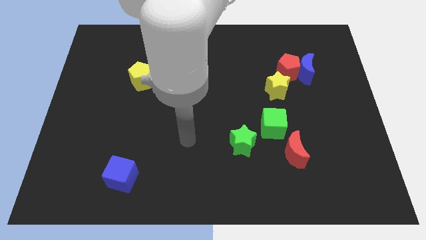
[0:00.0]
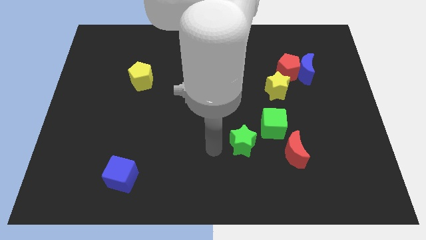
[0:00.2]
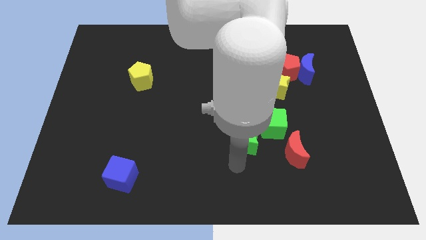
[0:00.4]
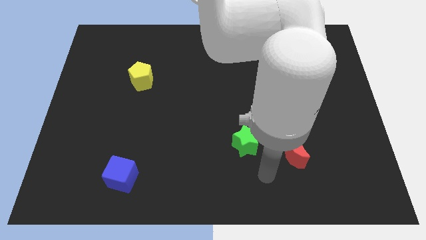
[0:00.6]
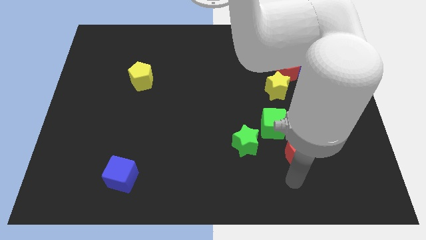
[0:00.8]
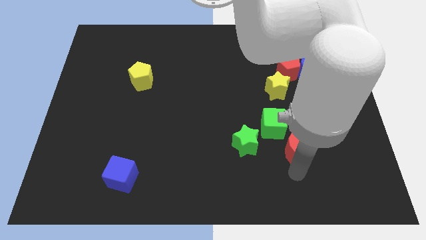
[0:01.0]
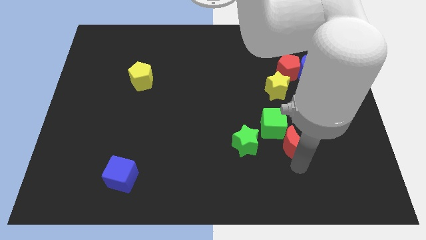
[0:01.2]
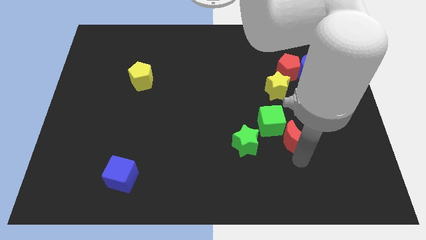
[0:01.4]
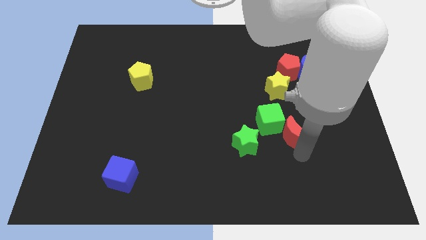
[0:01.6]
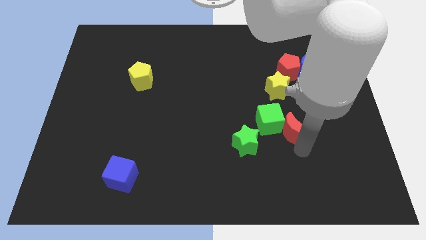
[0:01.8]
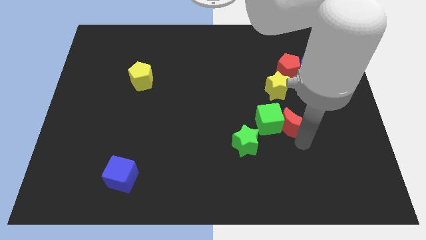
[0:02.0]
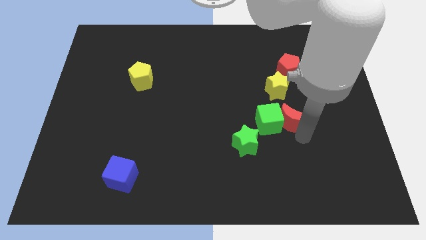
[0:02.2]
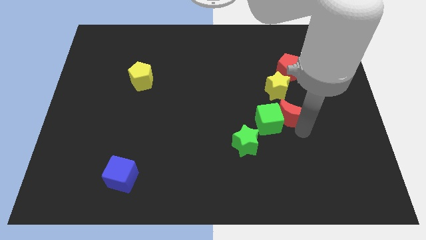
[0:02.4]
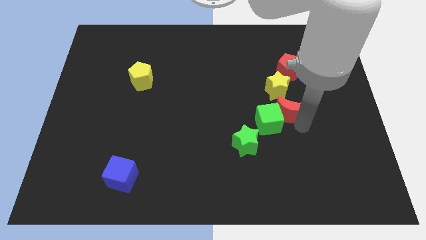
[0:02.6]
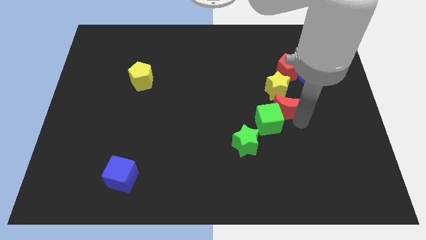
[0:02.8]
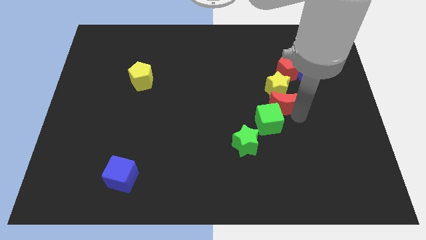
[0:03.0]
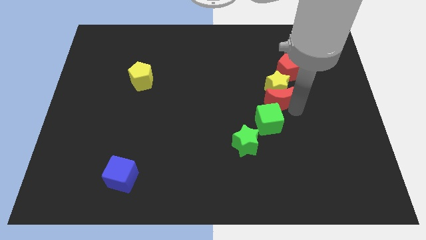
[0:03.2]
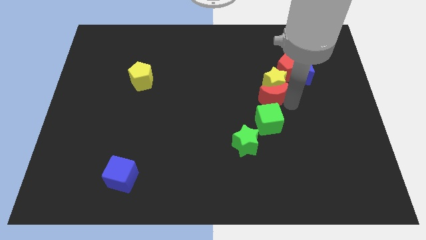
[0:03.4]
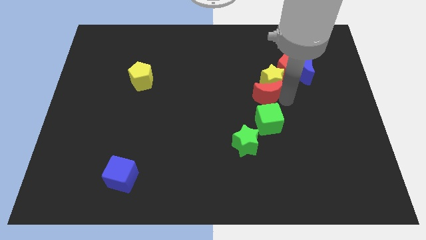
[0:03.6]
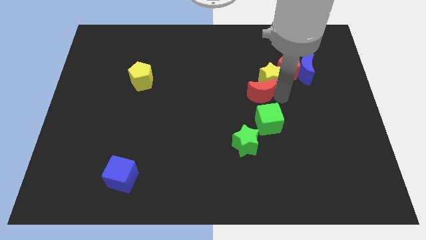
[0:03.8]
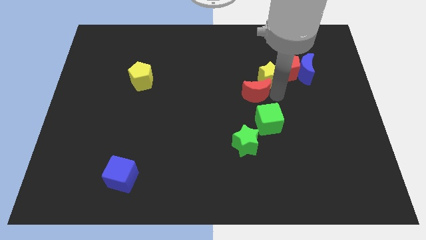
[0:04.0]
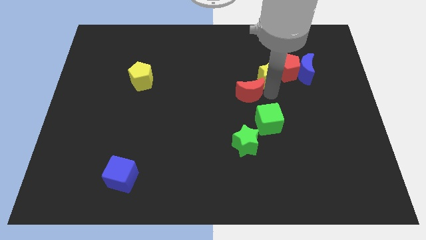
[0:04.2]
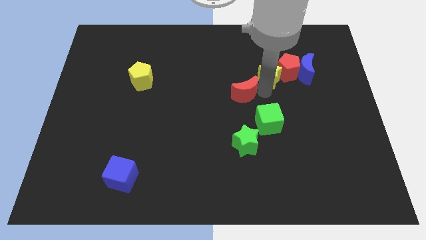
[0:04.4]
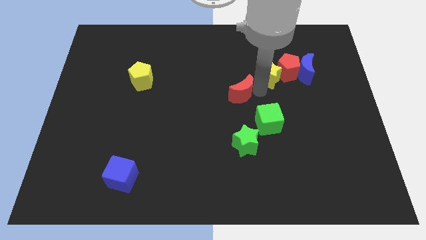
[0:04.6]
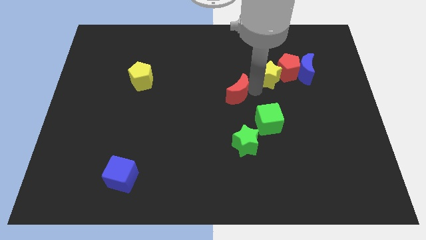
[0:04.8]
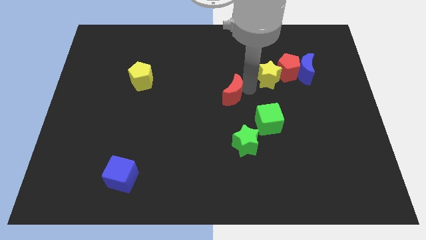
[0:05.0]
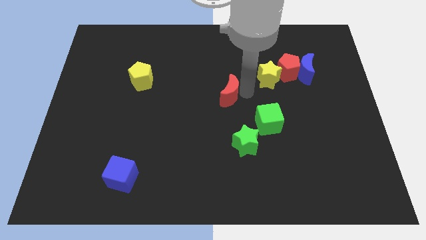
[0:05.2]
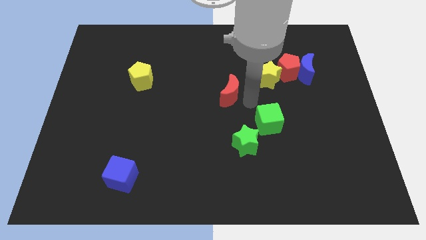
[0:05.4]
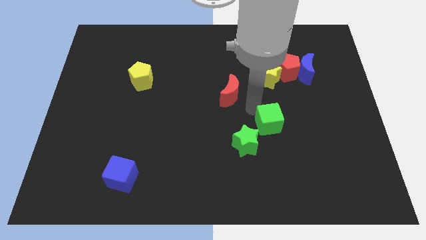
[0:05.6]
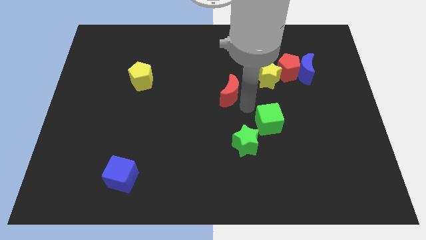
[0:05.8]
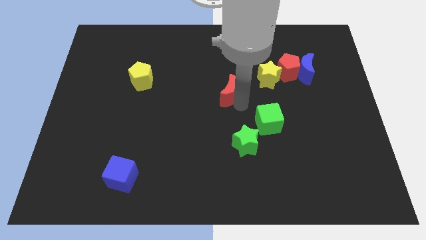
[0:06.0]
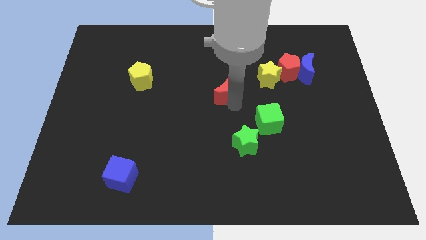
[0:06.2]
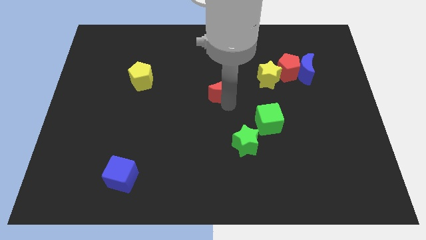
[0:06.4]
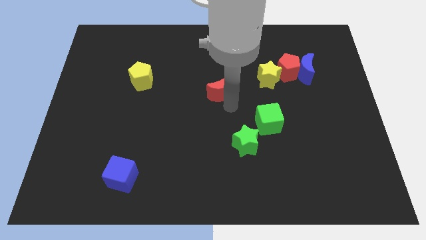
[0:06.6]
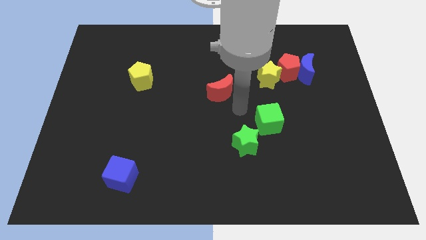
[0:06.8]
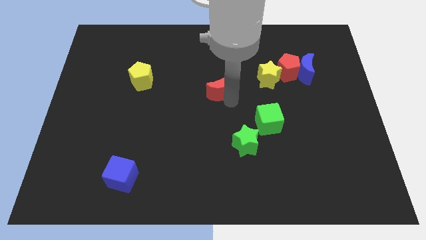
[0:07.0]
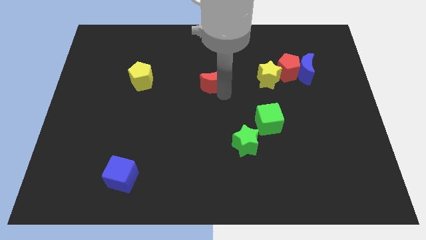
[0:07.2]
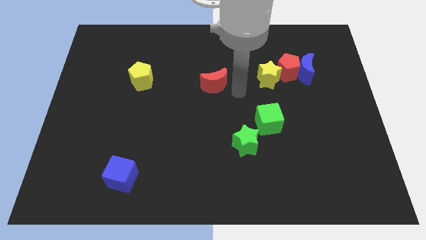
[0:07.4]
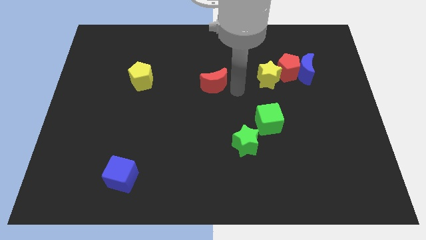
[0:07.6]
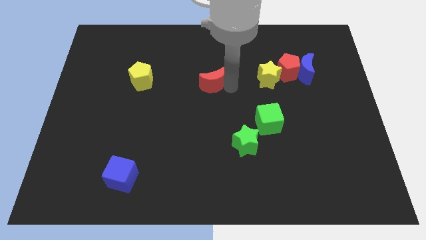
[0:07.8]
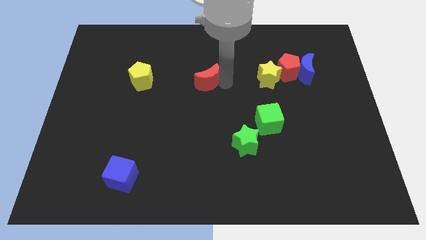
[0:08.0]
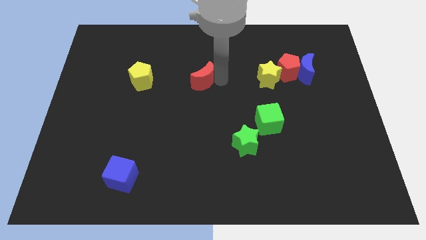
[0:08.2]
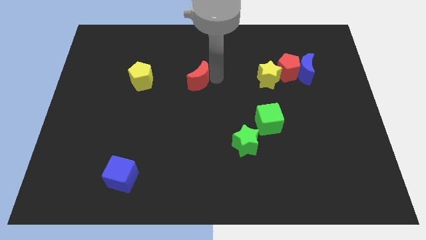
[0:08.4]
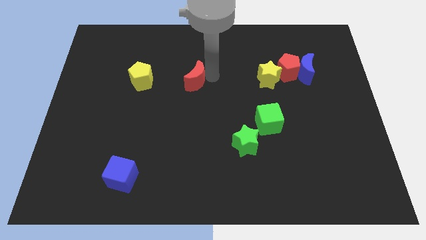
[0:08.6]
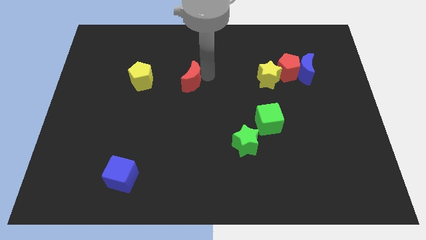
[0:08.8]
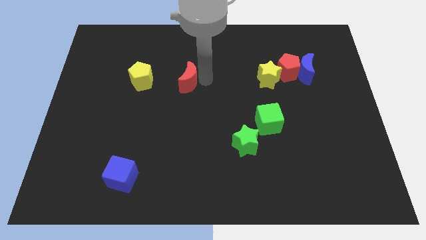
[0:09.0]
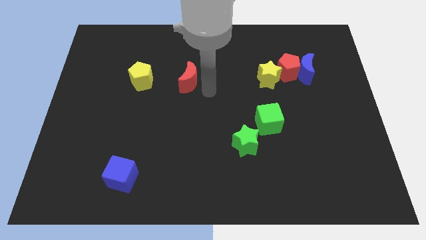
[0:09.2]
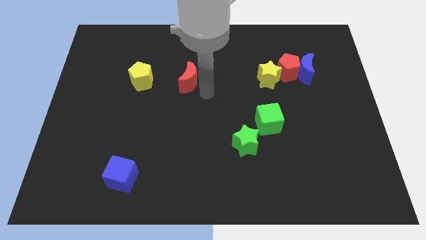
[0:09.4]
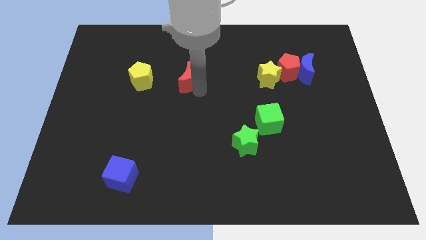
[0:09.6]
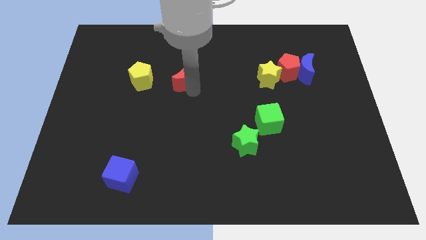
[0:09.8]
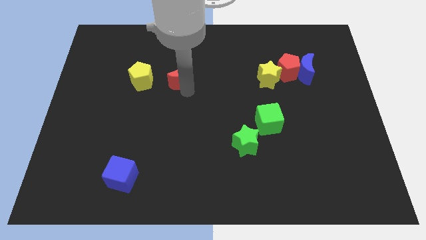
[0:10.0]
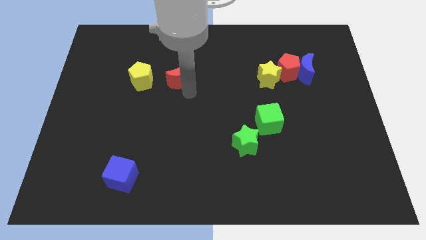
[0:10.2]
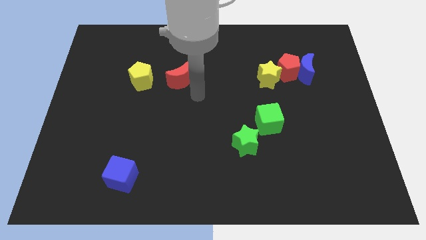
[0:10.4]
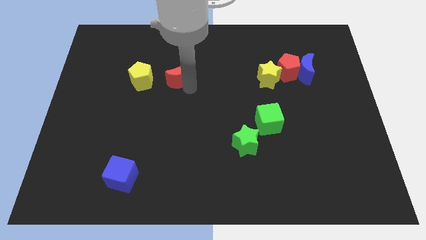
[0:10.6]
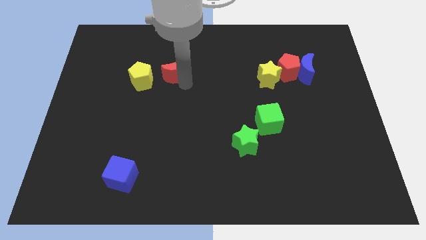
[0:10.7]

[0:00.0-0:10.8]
push the red moon to the top right of the yellow pentagon

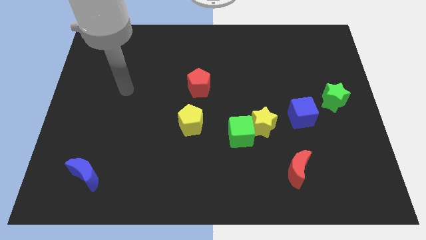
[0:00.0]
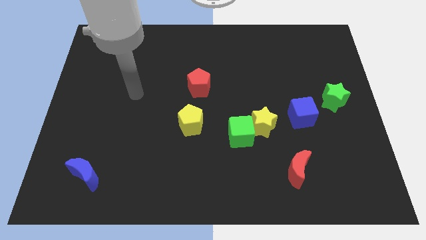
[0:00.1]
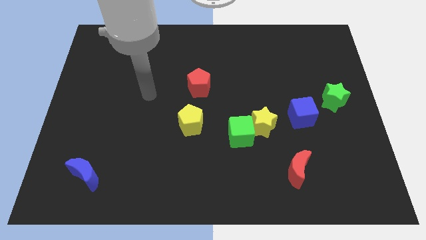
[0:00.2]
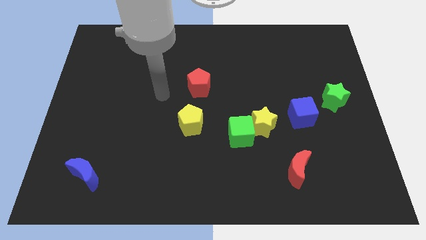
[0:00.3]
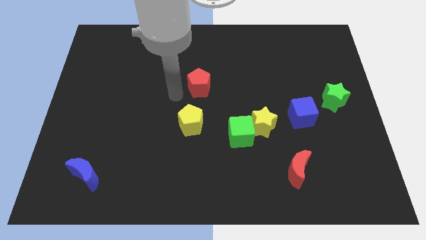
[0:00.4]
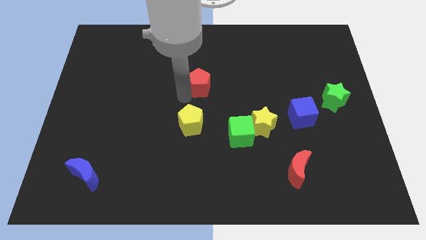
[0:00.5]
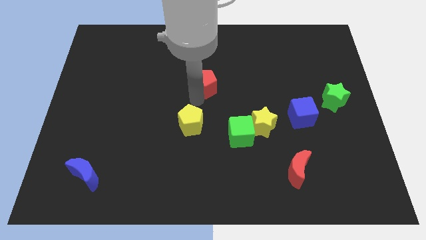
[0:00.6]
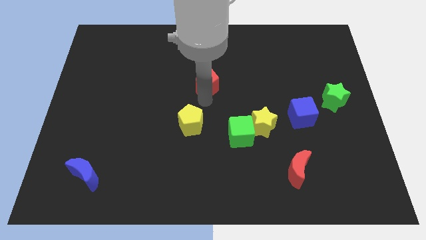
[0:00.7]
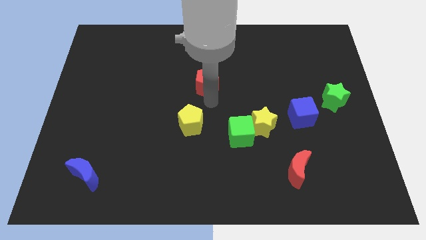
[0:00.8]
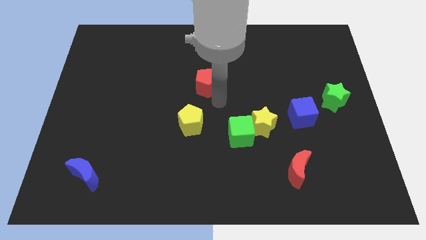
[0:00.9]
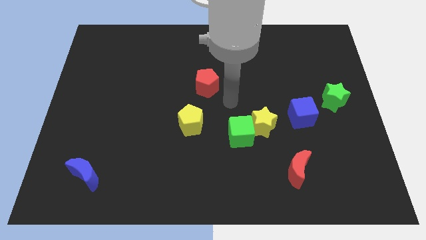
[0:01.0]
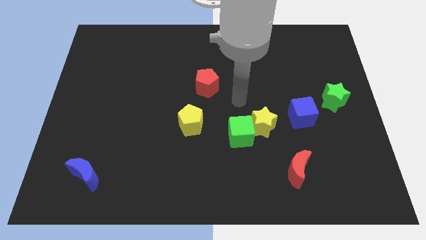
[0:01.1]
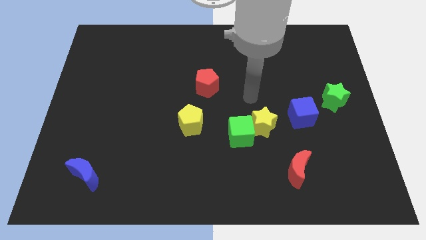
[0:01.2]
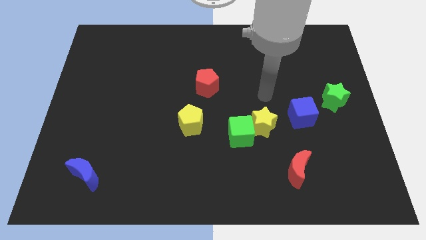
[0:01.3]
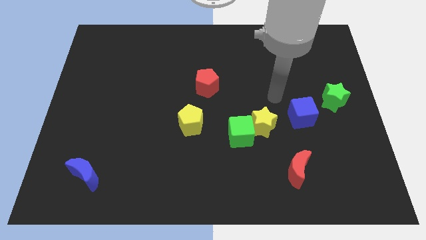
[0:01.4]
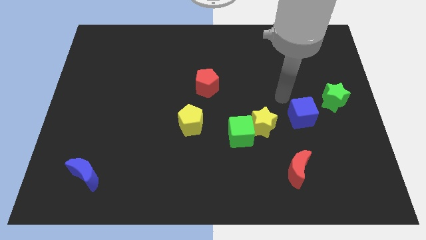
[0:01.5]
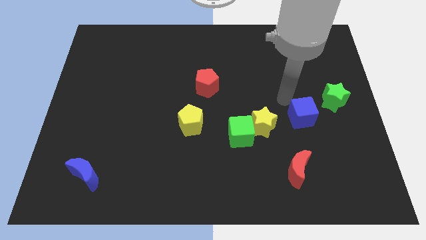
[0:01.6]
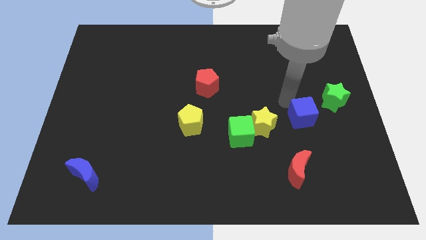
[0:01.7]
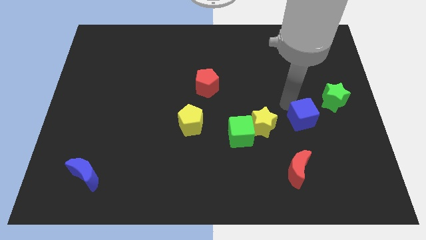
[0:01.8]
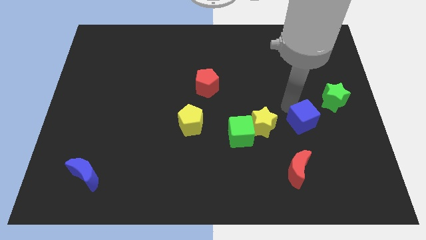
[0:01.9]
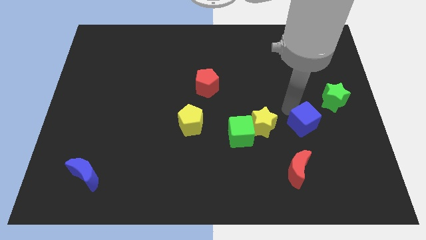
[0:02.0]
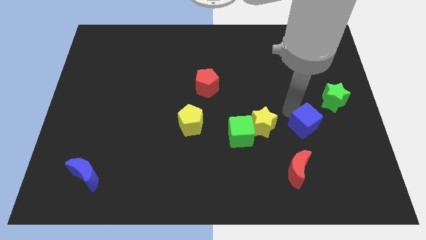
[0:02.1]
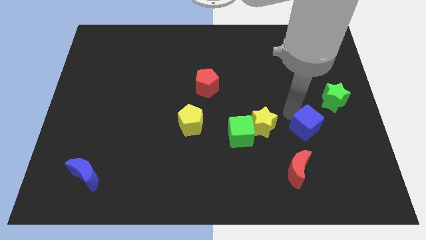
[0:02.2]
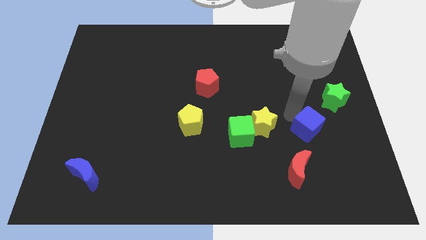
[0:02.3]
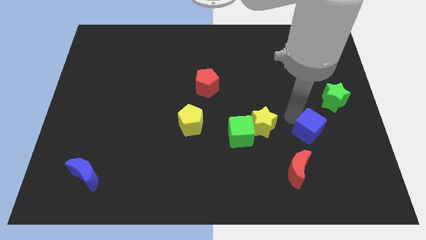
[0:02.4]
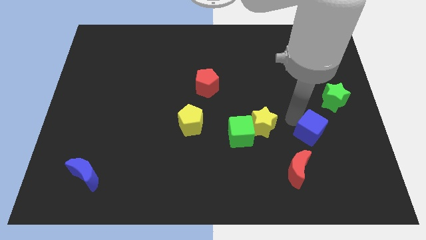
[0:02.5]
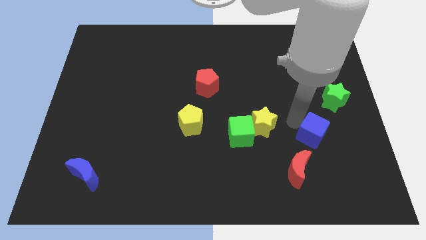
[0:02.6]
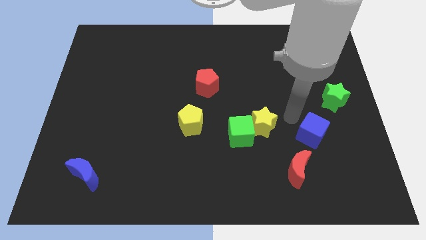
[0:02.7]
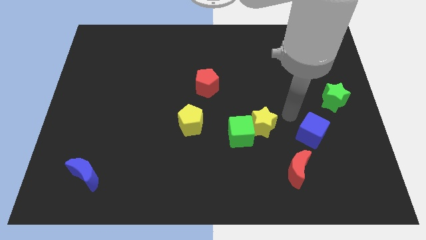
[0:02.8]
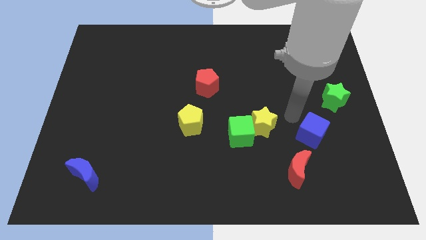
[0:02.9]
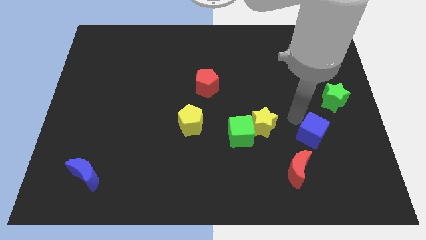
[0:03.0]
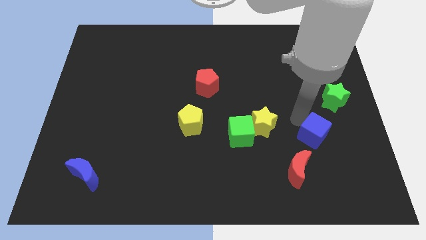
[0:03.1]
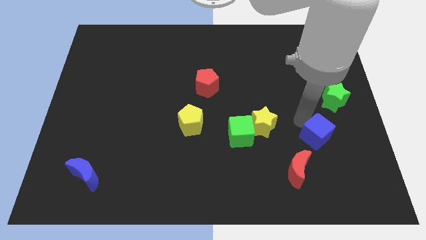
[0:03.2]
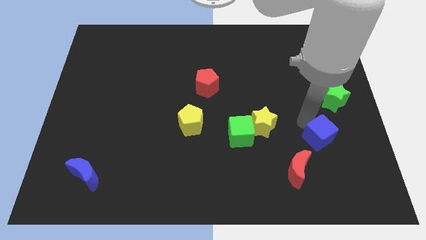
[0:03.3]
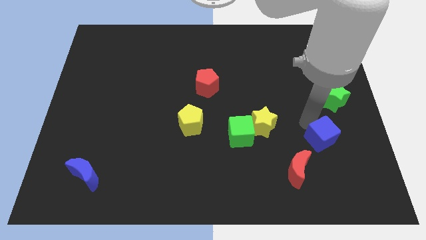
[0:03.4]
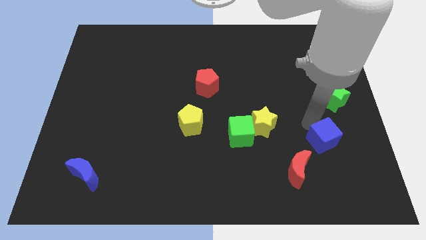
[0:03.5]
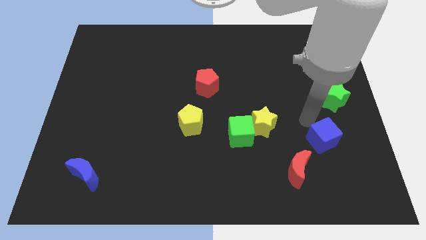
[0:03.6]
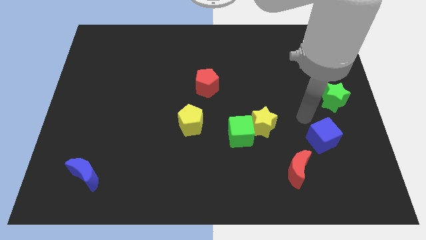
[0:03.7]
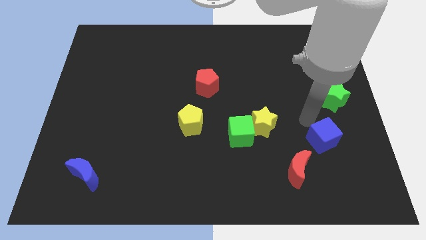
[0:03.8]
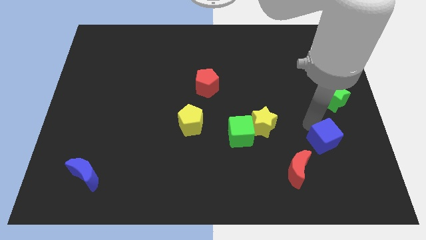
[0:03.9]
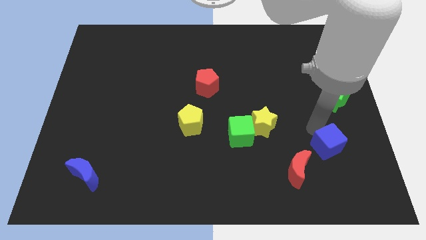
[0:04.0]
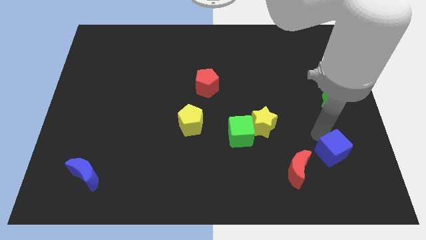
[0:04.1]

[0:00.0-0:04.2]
slide the blue cube just right of the red moon
